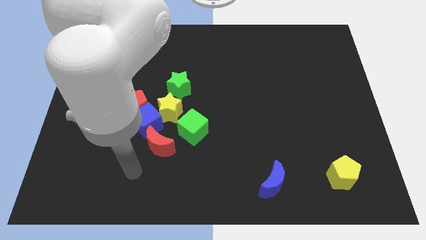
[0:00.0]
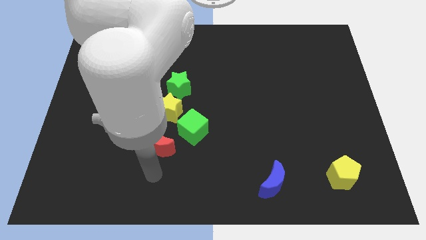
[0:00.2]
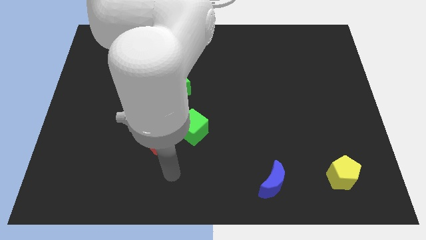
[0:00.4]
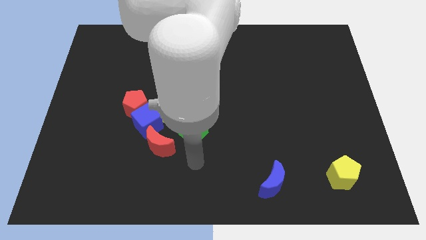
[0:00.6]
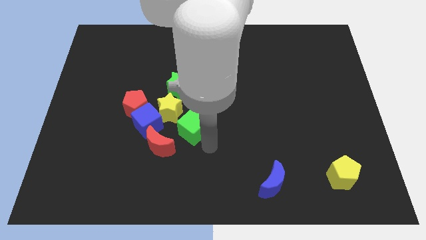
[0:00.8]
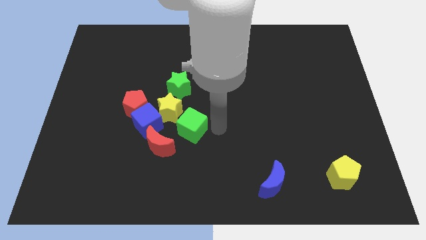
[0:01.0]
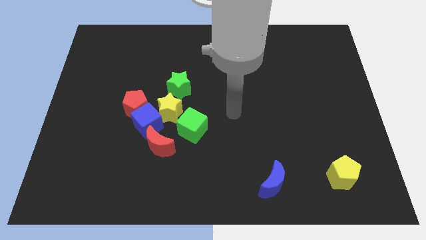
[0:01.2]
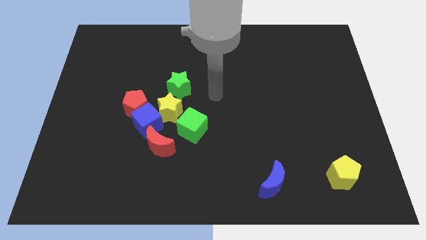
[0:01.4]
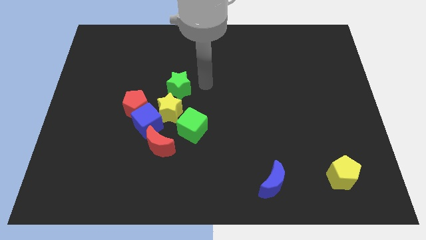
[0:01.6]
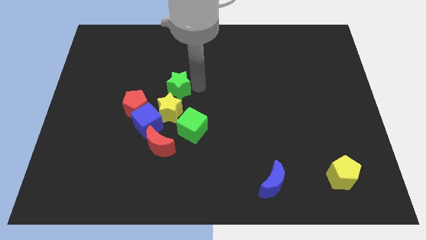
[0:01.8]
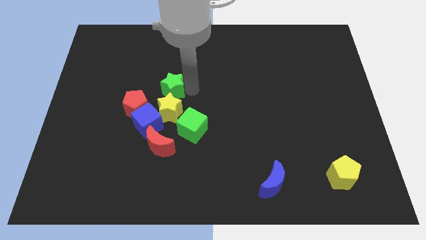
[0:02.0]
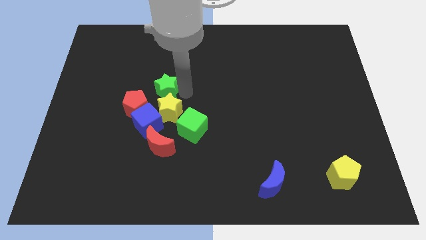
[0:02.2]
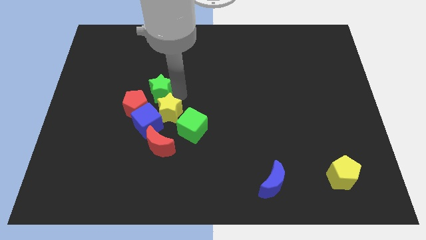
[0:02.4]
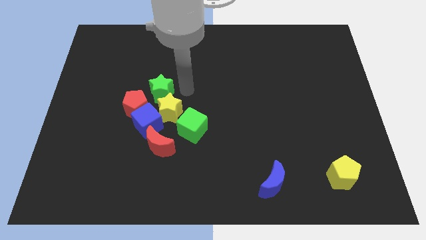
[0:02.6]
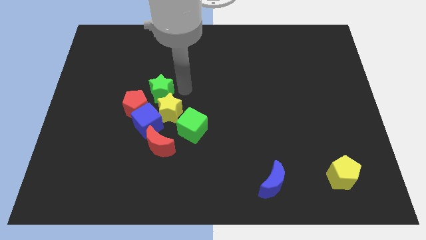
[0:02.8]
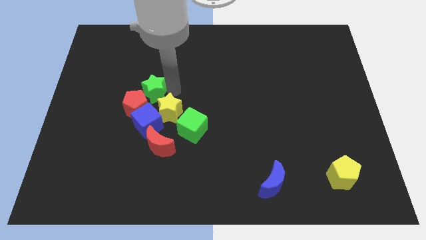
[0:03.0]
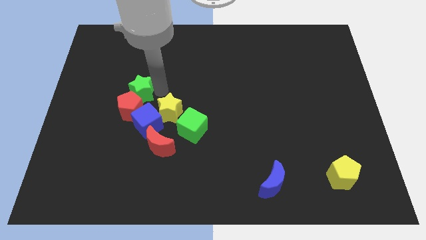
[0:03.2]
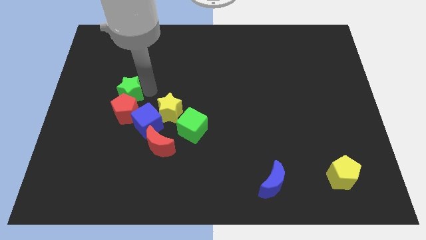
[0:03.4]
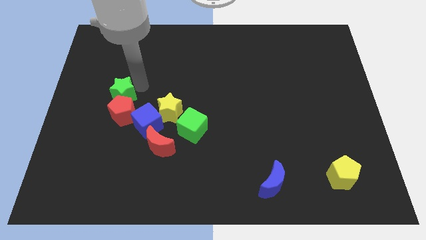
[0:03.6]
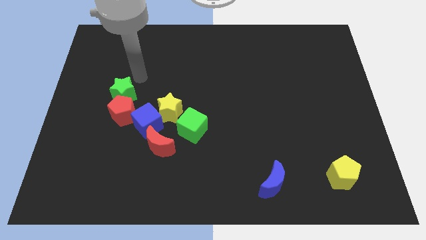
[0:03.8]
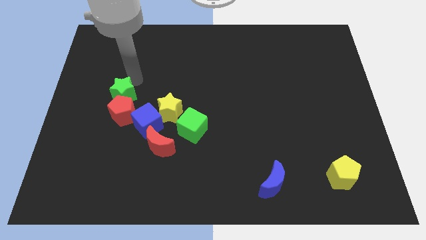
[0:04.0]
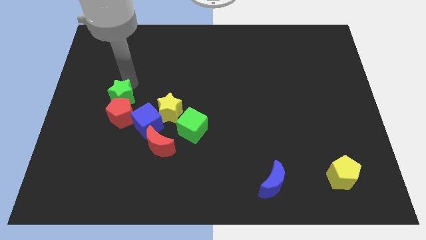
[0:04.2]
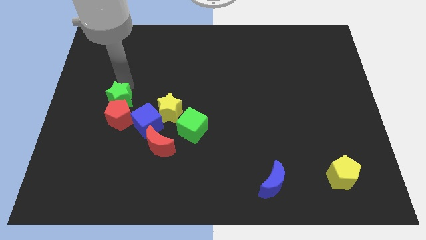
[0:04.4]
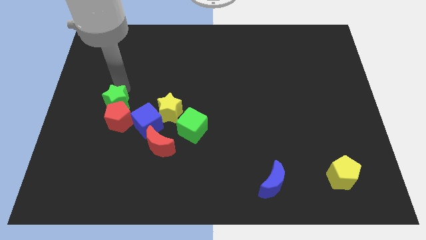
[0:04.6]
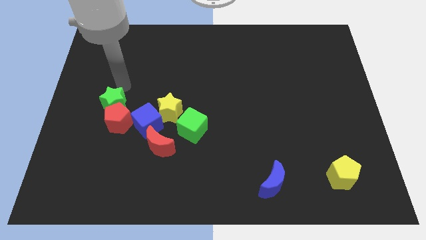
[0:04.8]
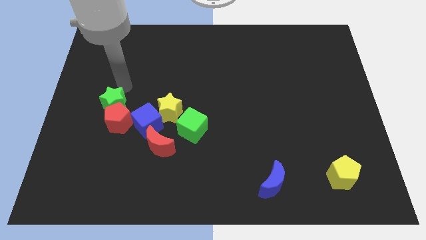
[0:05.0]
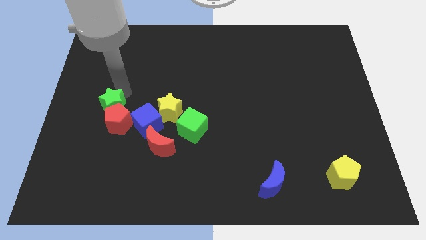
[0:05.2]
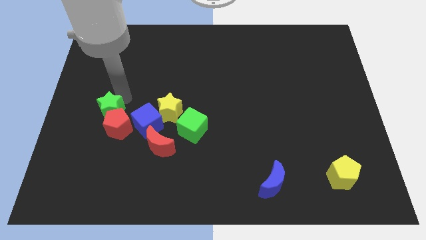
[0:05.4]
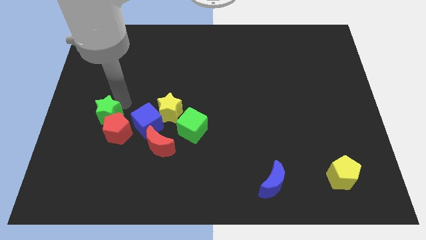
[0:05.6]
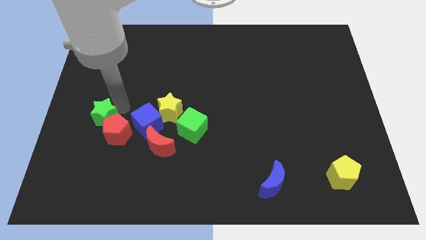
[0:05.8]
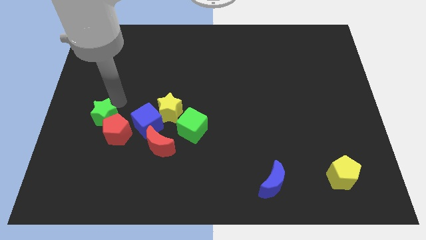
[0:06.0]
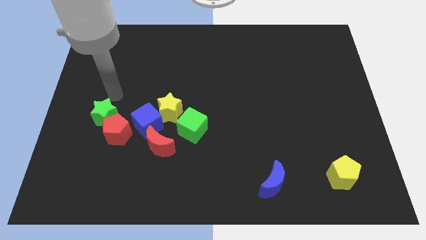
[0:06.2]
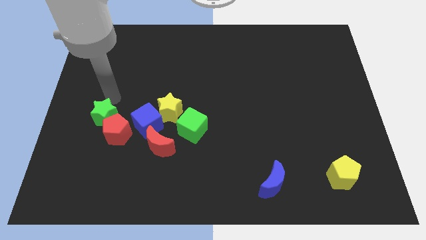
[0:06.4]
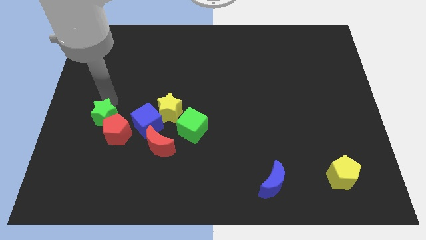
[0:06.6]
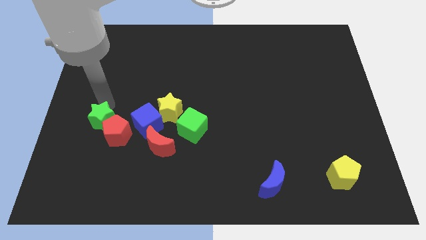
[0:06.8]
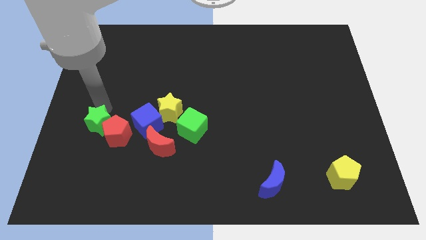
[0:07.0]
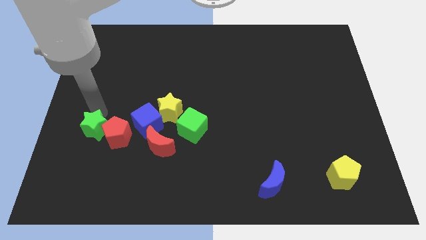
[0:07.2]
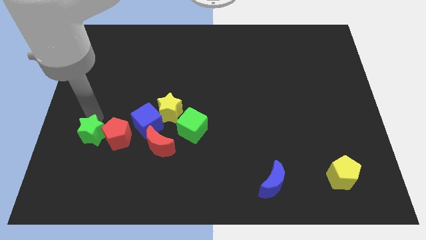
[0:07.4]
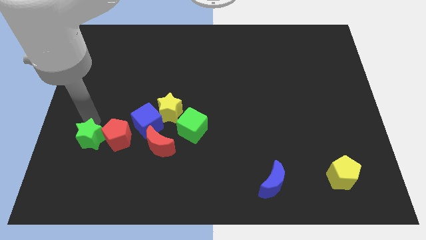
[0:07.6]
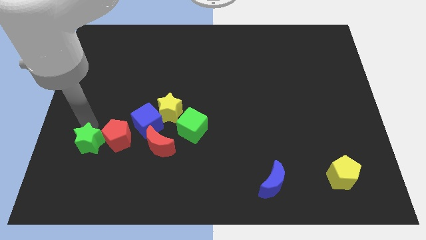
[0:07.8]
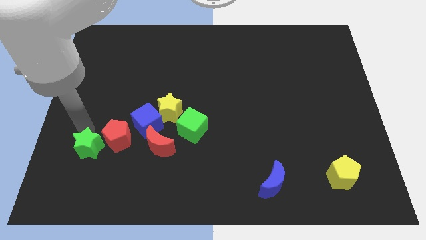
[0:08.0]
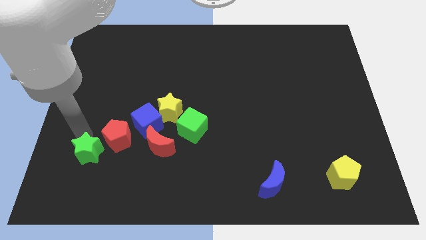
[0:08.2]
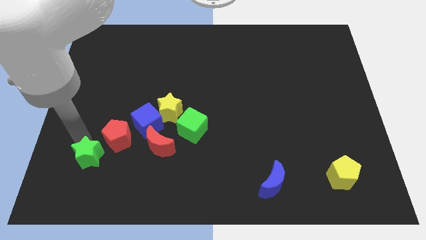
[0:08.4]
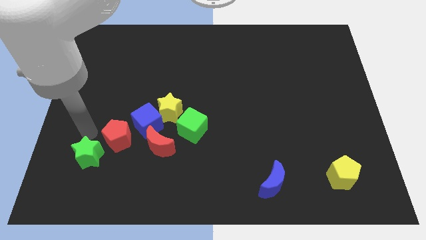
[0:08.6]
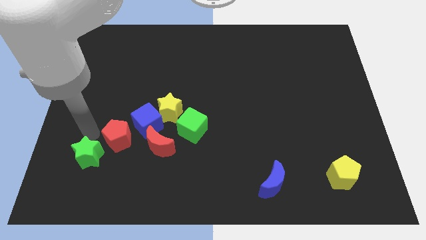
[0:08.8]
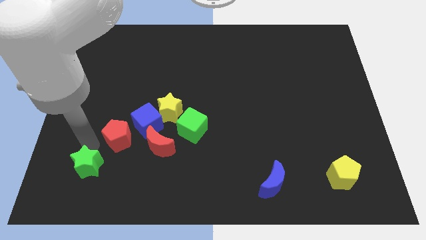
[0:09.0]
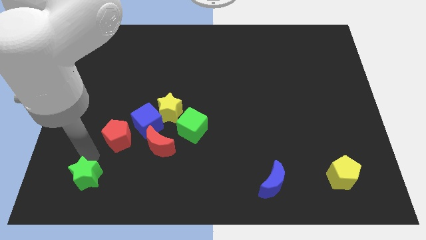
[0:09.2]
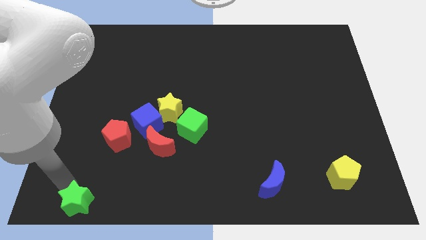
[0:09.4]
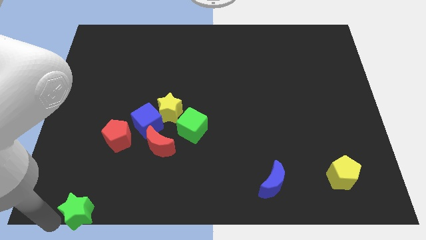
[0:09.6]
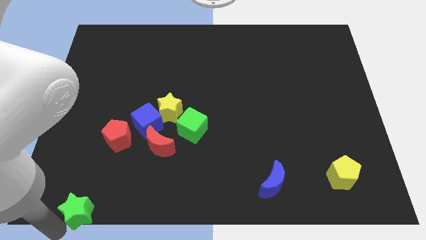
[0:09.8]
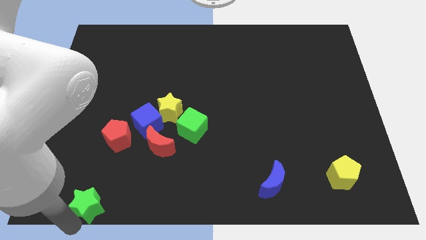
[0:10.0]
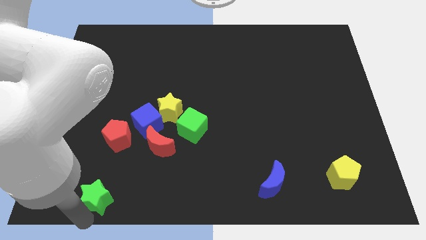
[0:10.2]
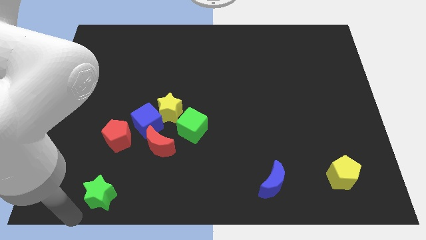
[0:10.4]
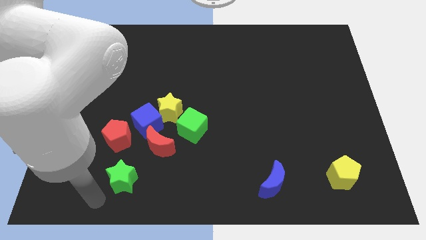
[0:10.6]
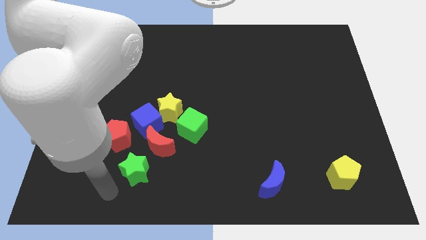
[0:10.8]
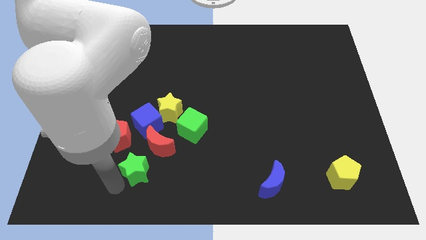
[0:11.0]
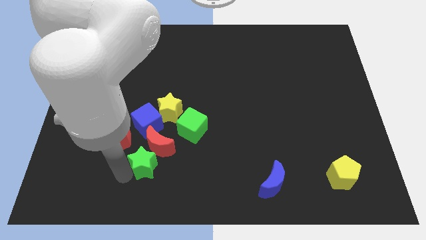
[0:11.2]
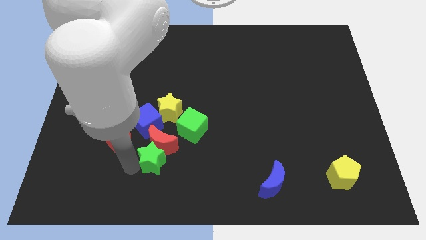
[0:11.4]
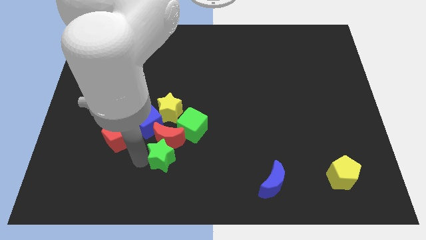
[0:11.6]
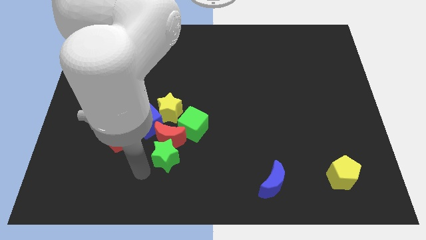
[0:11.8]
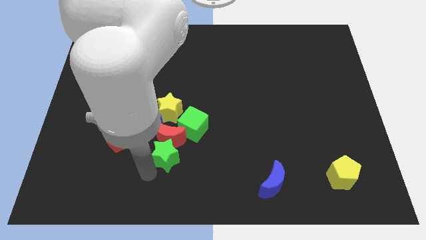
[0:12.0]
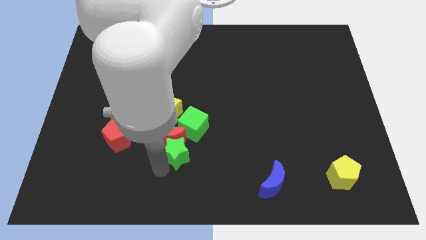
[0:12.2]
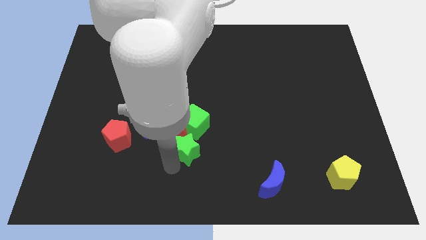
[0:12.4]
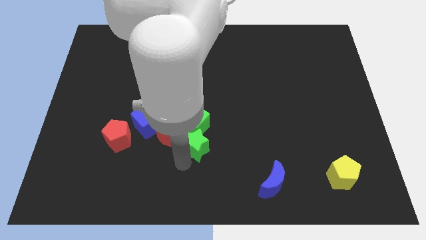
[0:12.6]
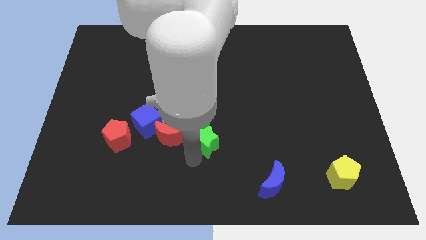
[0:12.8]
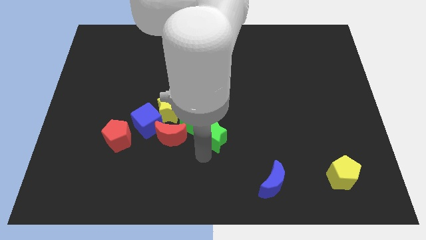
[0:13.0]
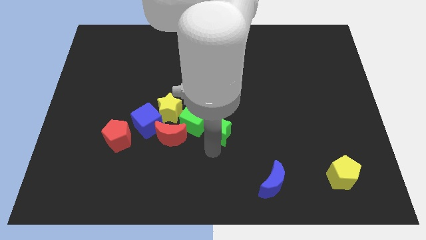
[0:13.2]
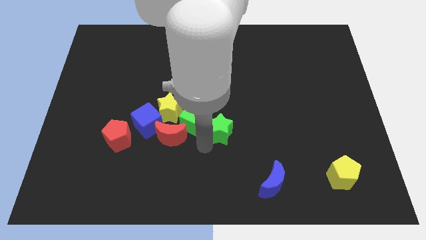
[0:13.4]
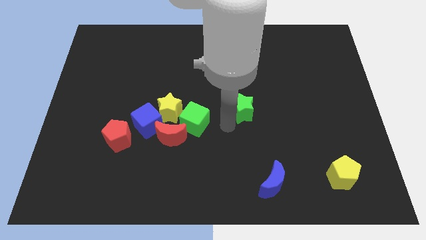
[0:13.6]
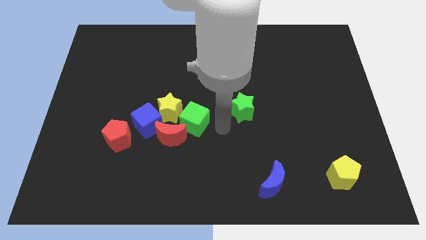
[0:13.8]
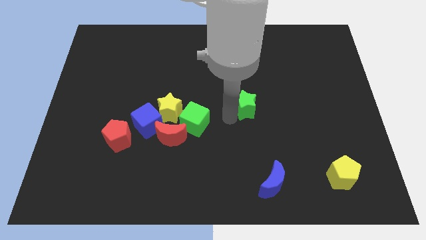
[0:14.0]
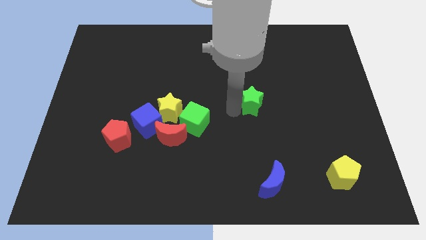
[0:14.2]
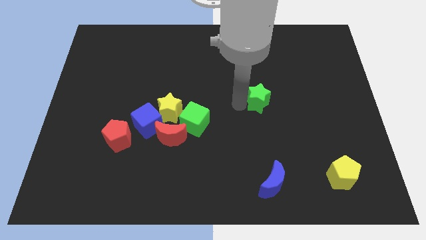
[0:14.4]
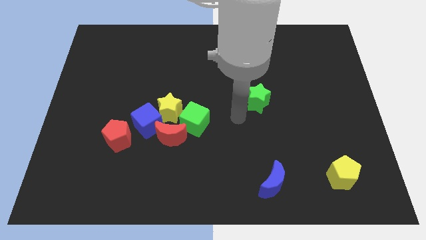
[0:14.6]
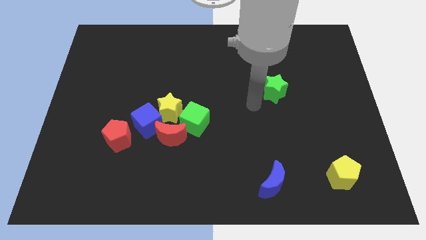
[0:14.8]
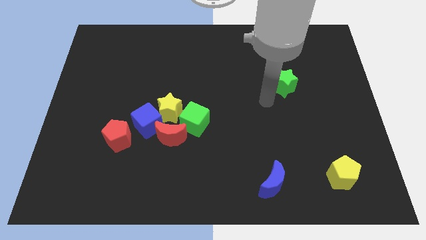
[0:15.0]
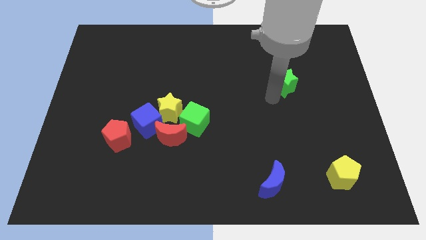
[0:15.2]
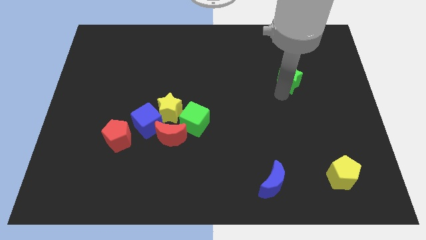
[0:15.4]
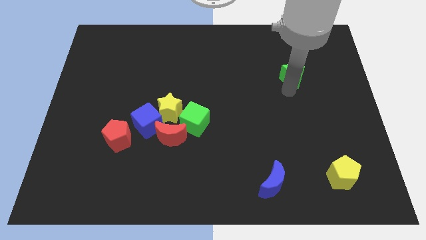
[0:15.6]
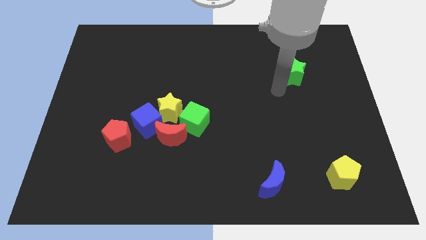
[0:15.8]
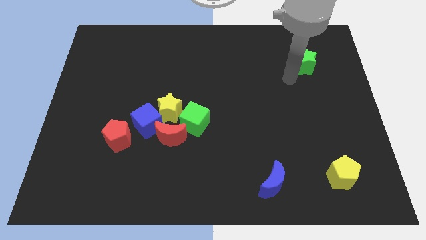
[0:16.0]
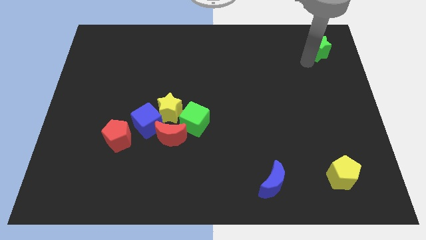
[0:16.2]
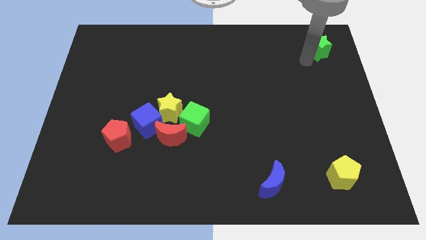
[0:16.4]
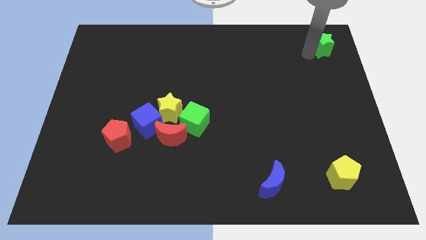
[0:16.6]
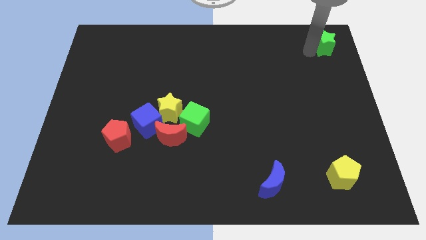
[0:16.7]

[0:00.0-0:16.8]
push the green star to the top right corner
